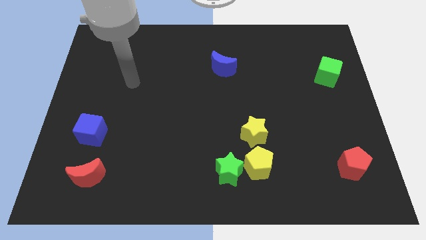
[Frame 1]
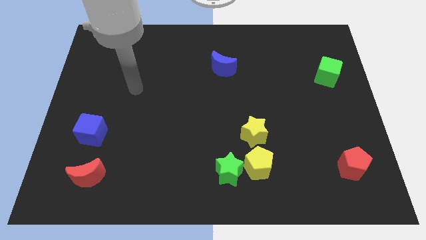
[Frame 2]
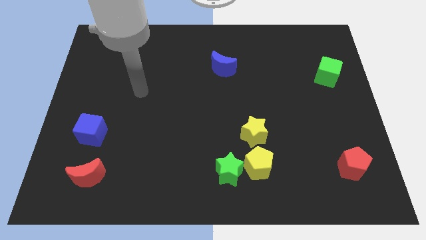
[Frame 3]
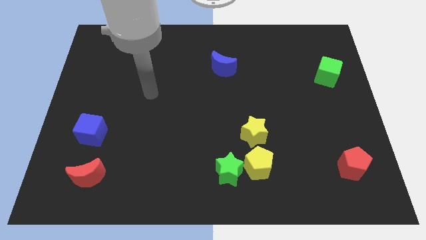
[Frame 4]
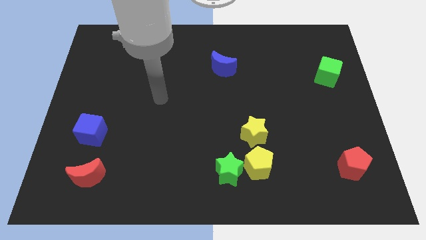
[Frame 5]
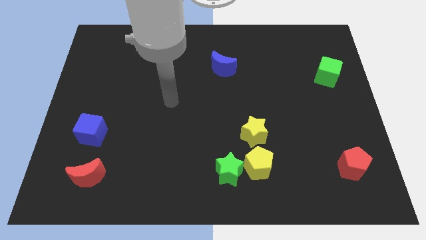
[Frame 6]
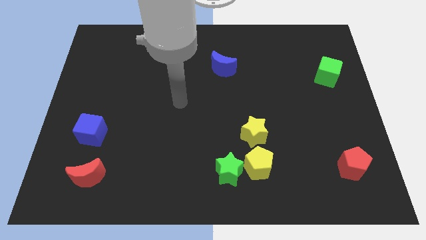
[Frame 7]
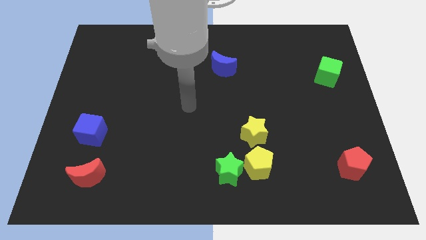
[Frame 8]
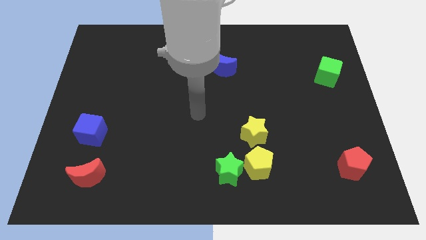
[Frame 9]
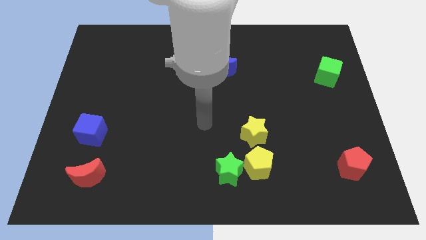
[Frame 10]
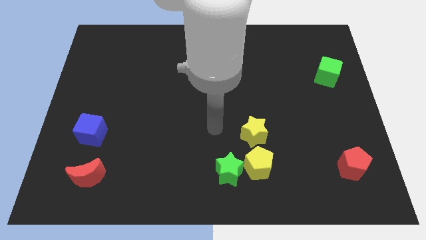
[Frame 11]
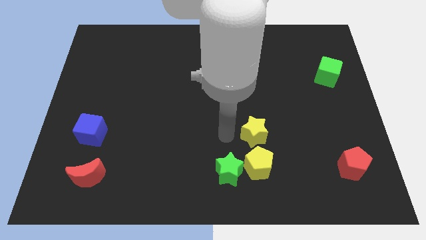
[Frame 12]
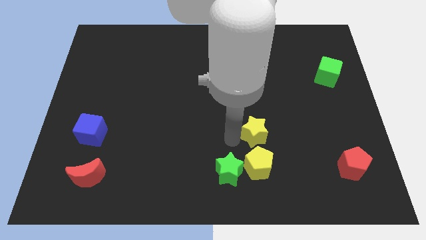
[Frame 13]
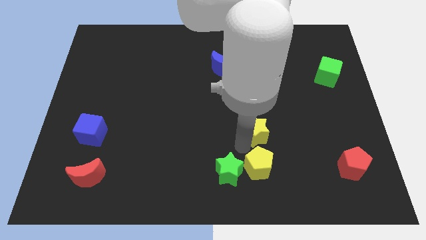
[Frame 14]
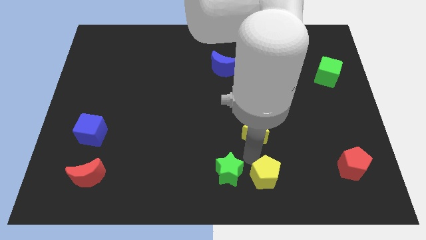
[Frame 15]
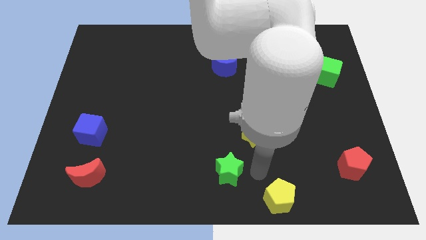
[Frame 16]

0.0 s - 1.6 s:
move the green star away from the yellow pentagon

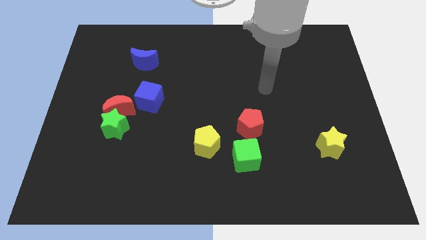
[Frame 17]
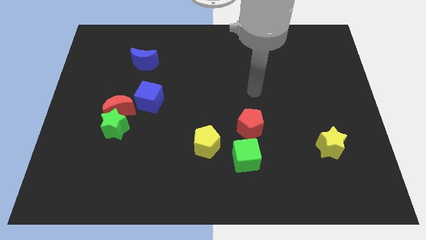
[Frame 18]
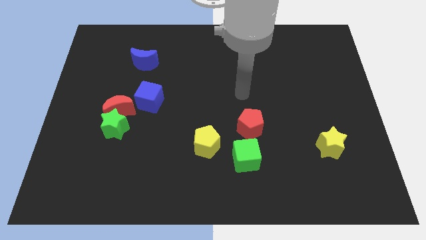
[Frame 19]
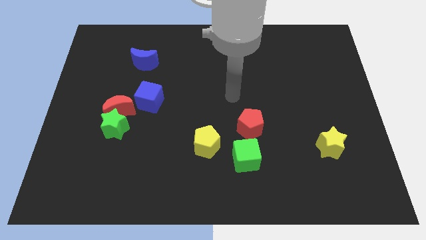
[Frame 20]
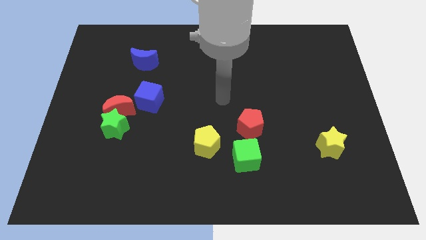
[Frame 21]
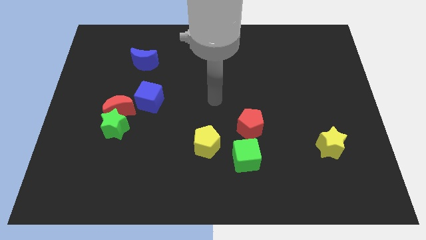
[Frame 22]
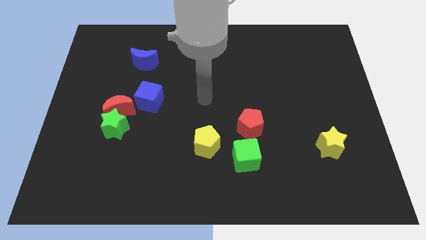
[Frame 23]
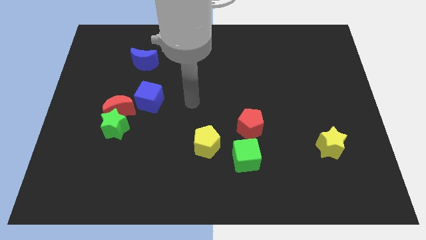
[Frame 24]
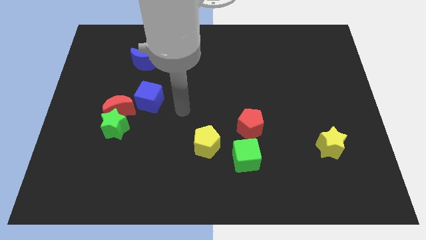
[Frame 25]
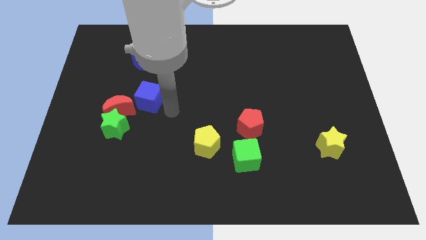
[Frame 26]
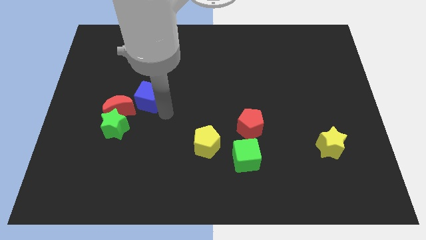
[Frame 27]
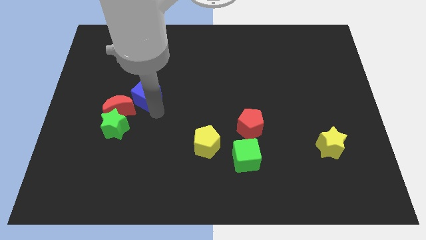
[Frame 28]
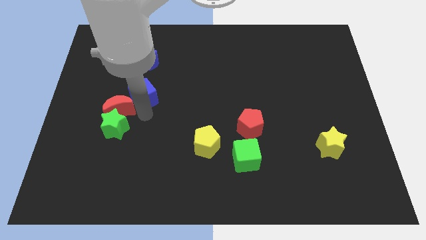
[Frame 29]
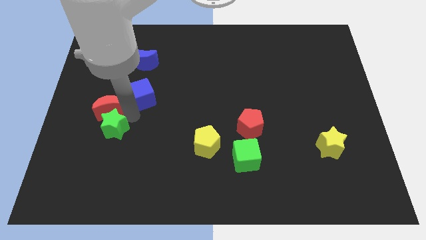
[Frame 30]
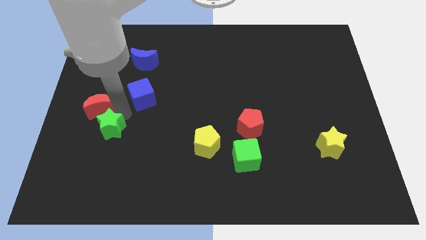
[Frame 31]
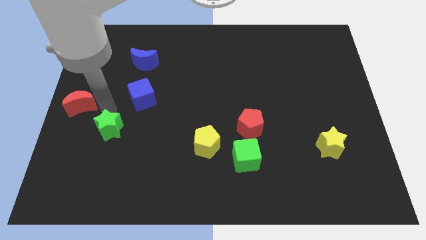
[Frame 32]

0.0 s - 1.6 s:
move the green star away from the red moon

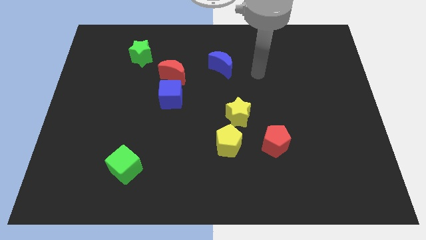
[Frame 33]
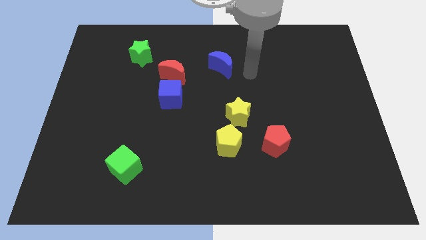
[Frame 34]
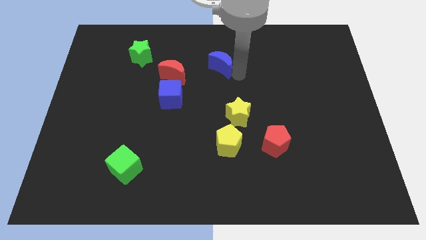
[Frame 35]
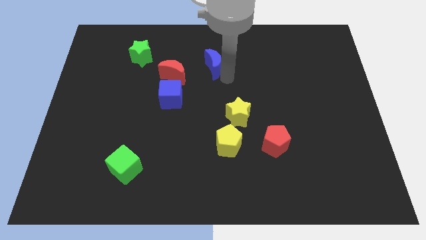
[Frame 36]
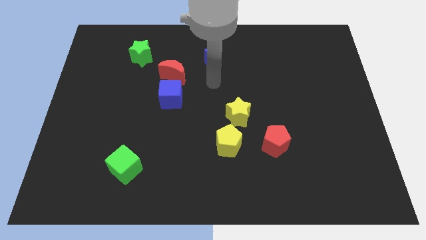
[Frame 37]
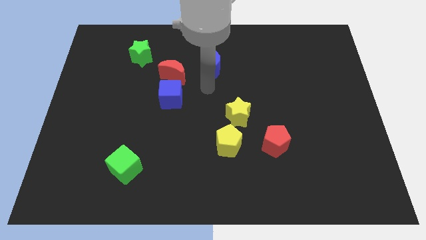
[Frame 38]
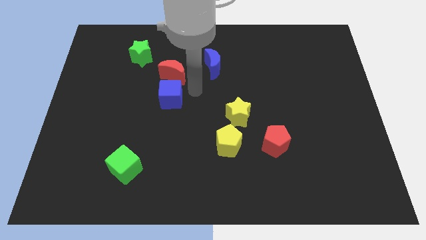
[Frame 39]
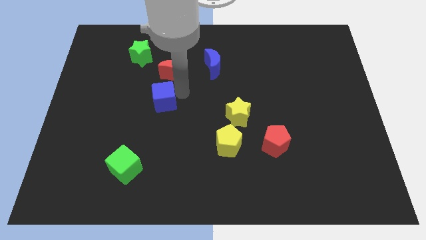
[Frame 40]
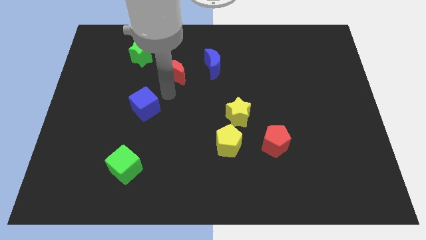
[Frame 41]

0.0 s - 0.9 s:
move the red moon away from the blue cube

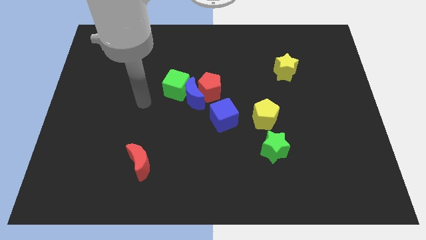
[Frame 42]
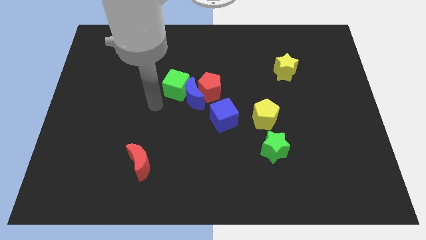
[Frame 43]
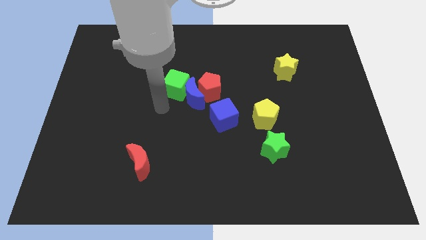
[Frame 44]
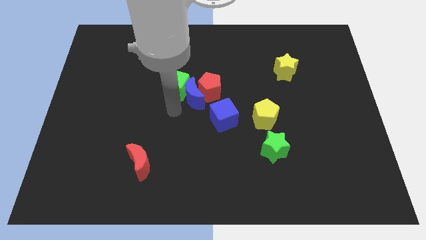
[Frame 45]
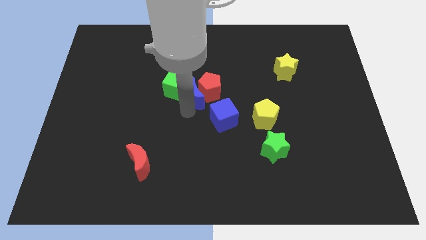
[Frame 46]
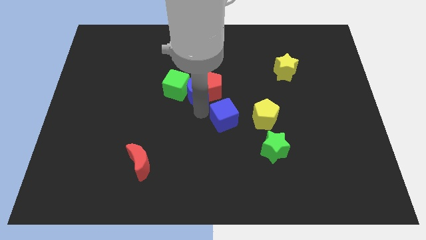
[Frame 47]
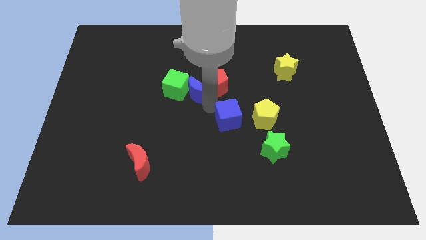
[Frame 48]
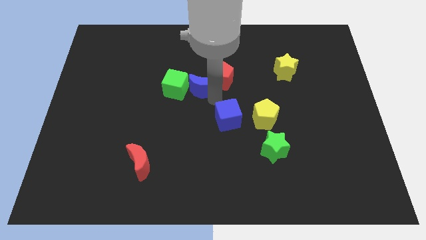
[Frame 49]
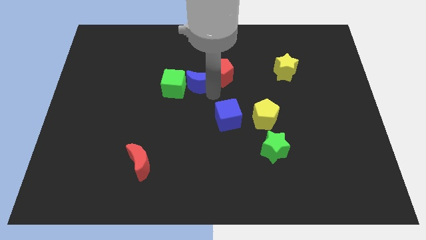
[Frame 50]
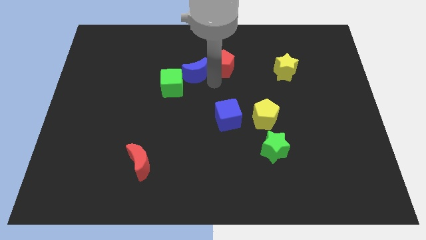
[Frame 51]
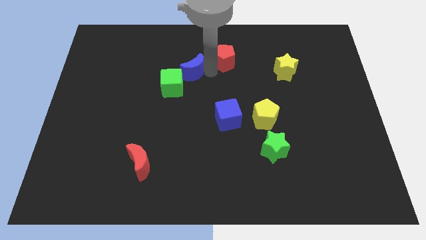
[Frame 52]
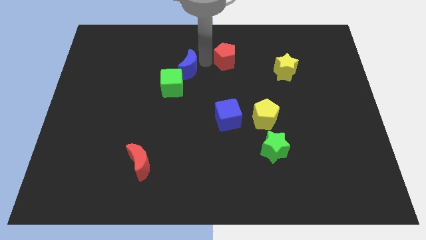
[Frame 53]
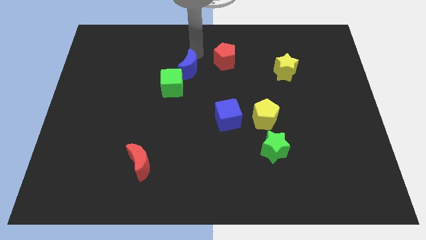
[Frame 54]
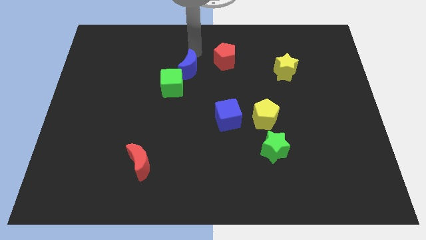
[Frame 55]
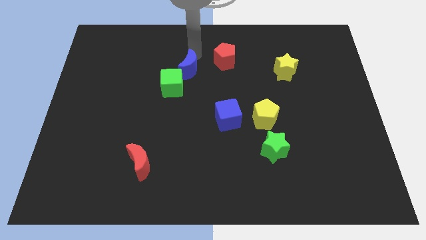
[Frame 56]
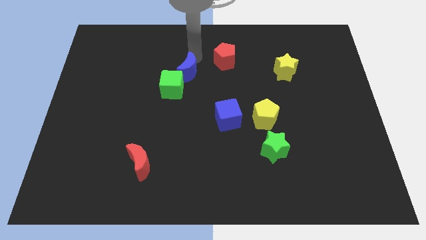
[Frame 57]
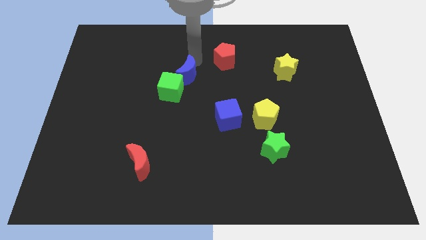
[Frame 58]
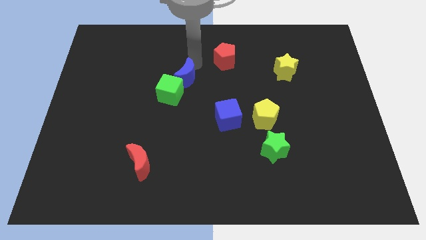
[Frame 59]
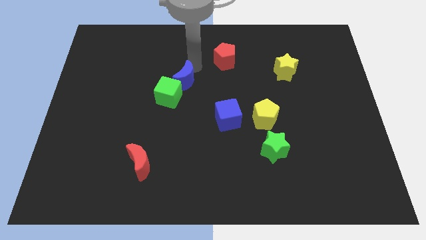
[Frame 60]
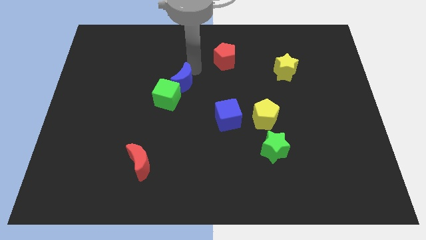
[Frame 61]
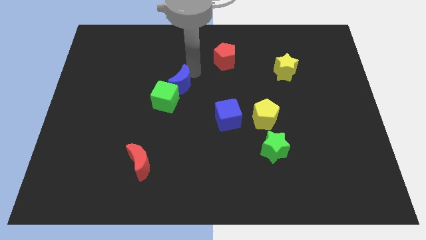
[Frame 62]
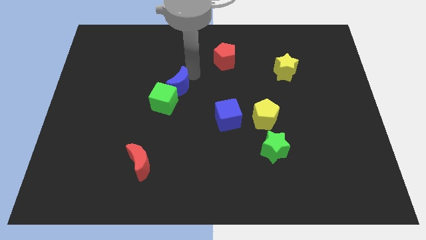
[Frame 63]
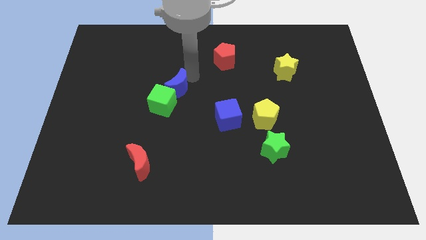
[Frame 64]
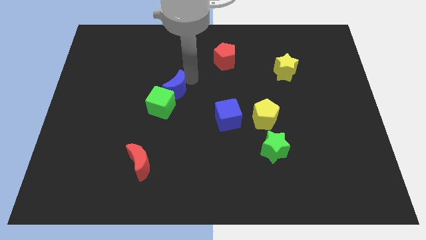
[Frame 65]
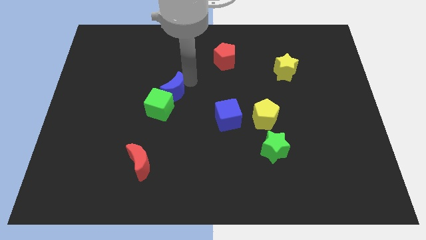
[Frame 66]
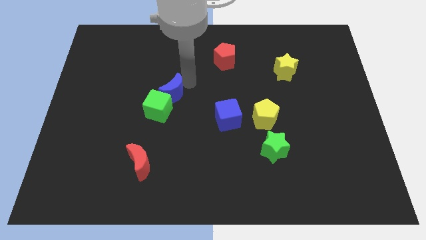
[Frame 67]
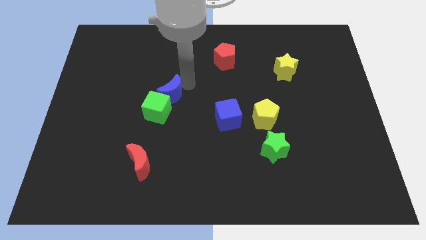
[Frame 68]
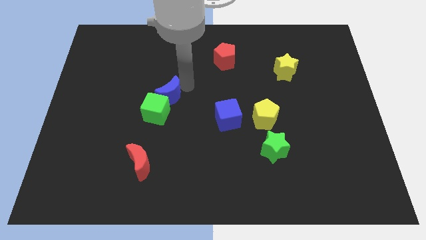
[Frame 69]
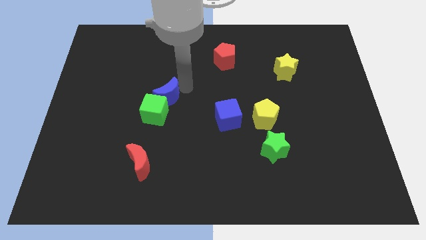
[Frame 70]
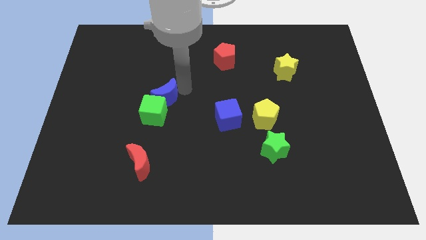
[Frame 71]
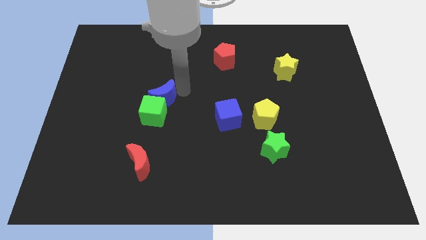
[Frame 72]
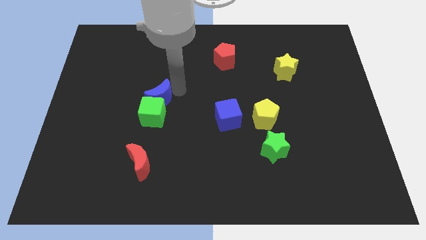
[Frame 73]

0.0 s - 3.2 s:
pull the blue moon apart from the red pentagon, green cube, and blue cube

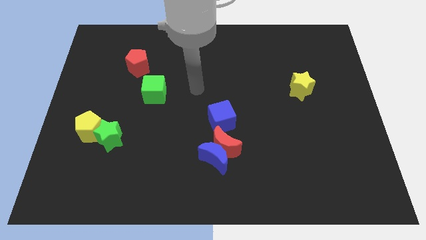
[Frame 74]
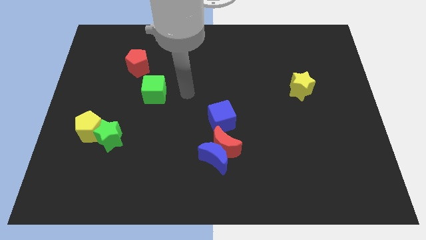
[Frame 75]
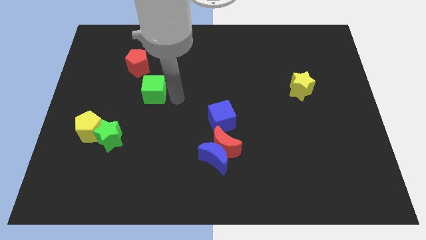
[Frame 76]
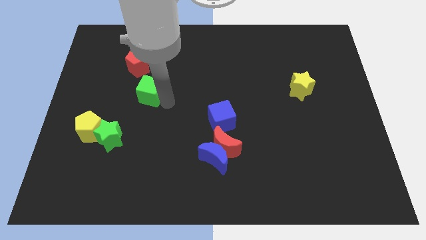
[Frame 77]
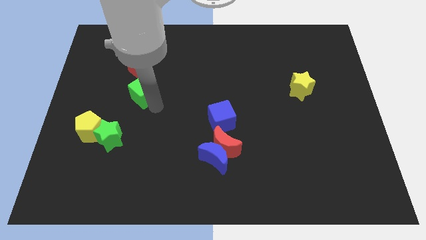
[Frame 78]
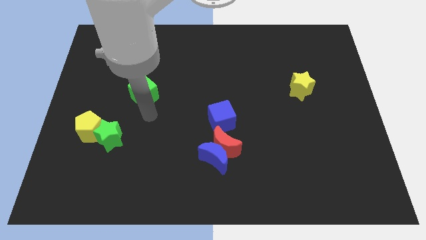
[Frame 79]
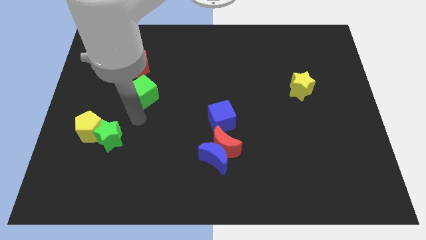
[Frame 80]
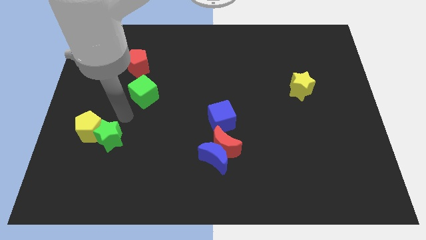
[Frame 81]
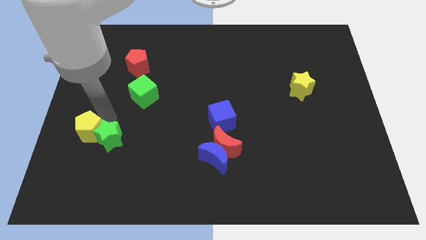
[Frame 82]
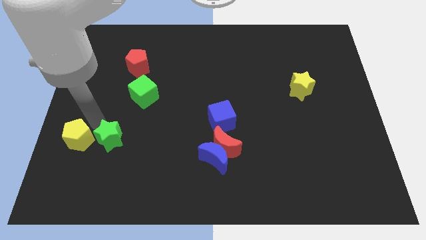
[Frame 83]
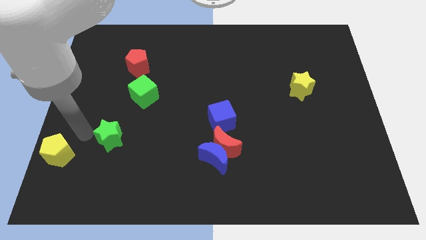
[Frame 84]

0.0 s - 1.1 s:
pull the green star apart from the yellow pentagon

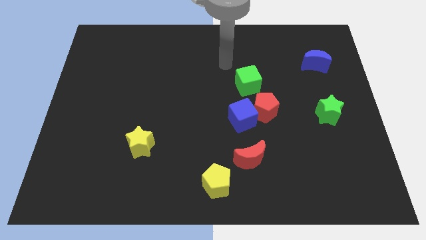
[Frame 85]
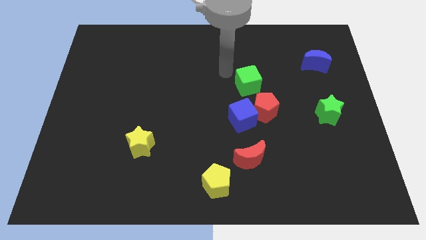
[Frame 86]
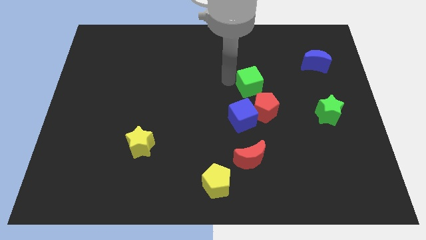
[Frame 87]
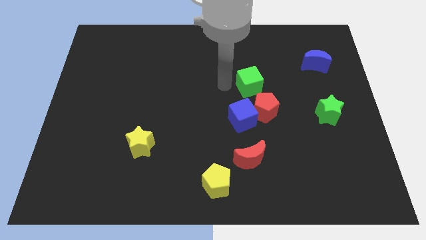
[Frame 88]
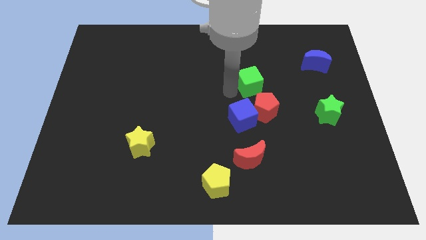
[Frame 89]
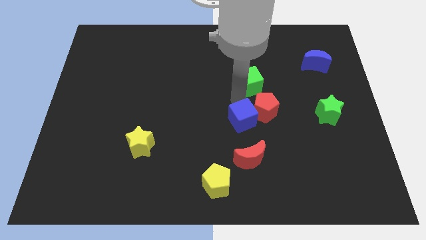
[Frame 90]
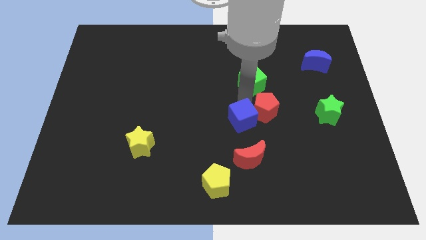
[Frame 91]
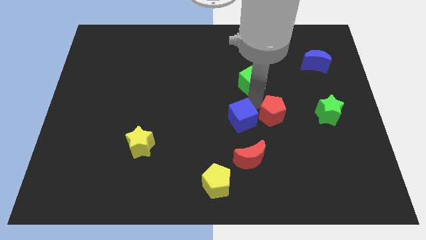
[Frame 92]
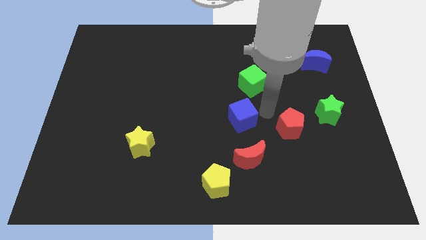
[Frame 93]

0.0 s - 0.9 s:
move the blue cube away from the red pentagon

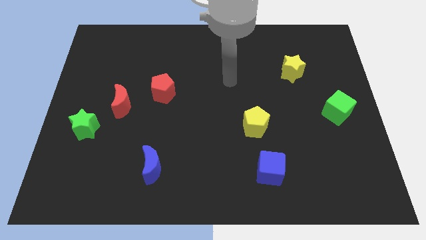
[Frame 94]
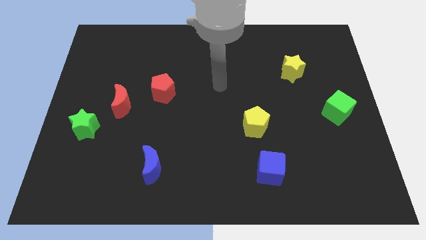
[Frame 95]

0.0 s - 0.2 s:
pull the red pentagon apart from the red moon
